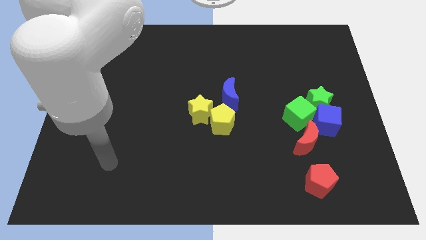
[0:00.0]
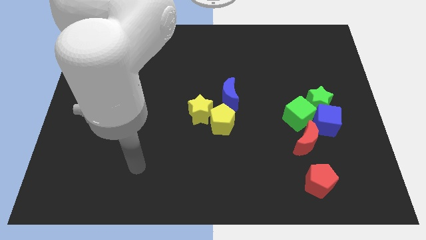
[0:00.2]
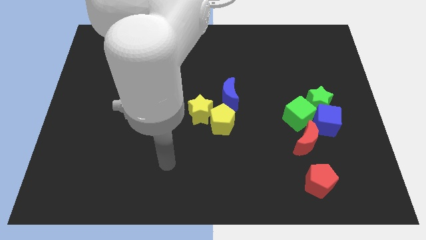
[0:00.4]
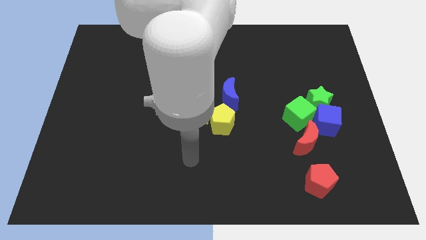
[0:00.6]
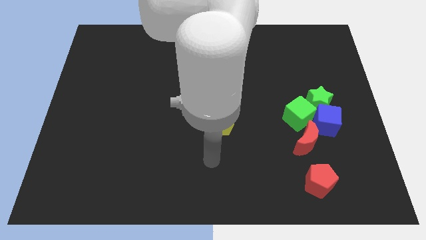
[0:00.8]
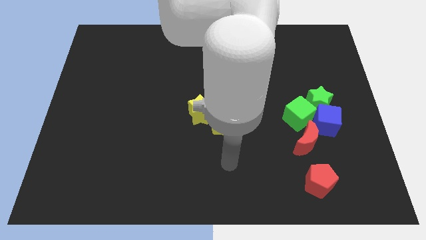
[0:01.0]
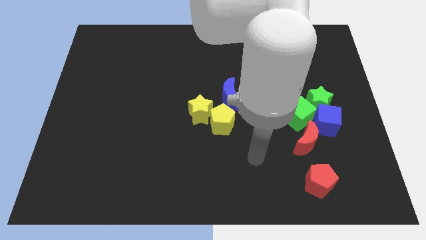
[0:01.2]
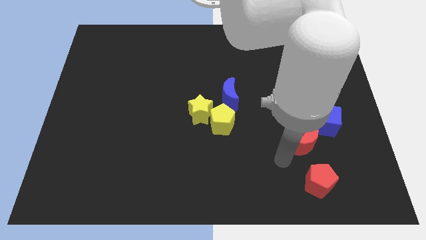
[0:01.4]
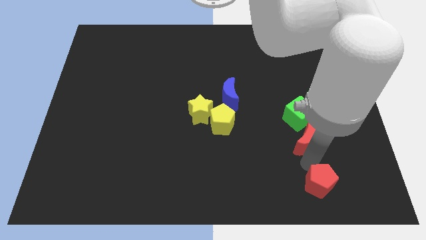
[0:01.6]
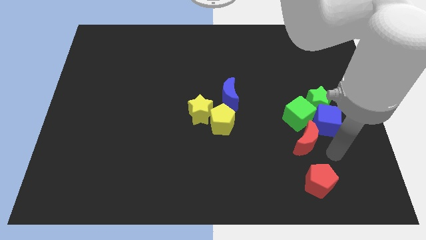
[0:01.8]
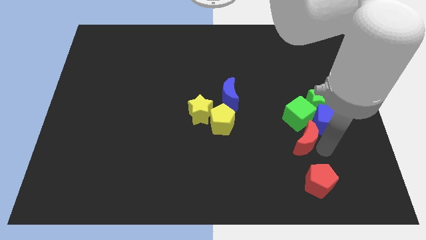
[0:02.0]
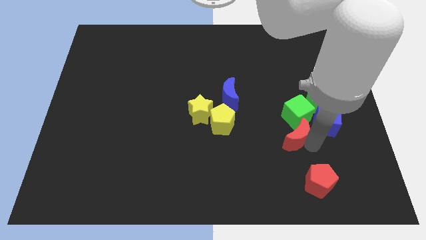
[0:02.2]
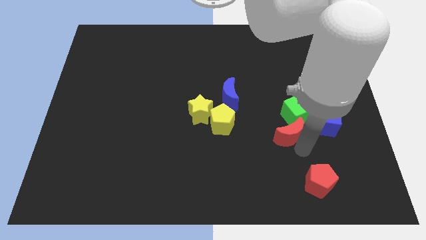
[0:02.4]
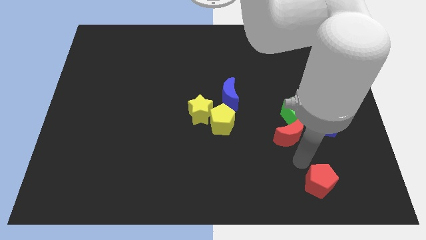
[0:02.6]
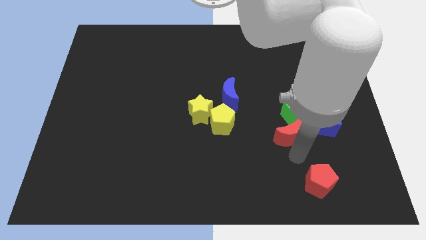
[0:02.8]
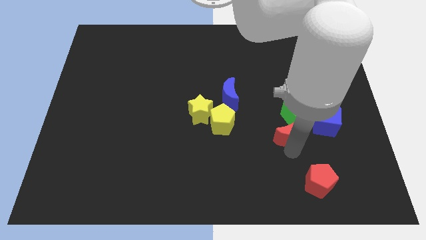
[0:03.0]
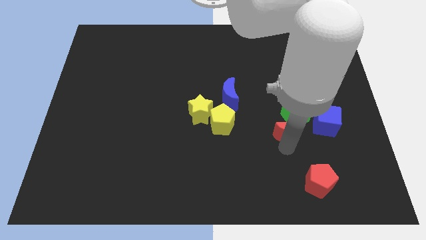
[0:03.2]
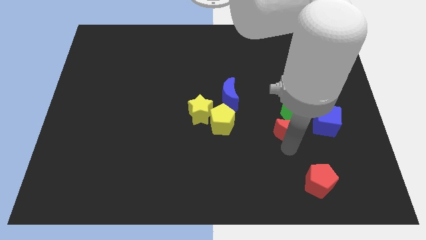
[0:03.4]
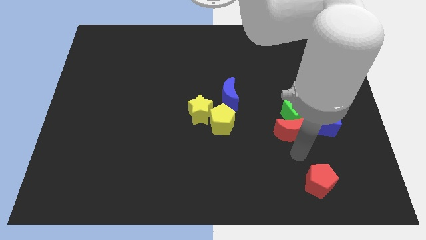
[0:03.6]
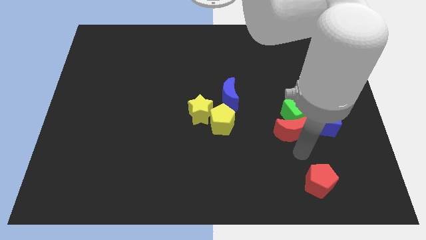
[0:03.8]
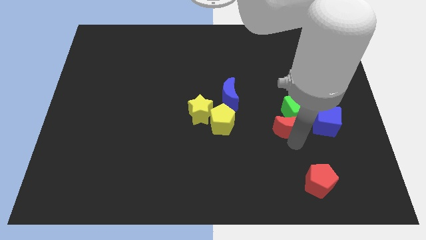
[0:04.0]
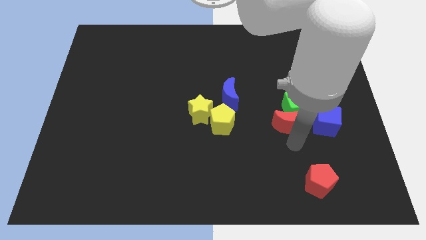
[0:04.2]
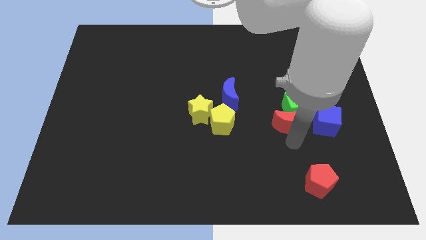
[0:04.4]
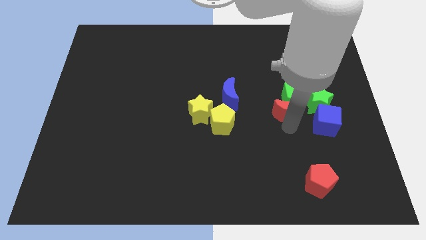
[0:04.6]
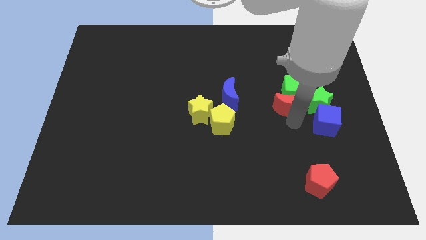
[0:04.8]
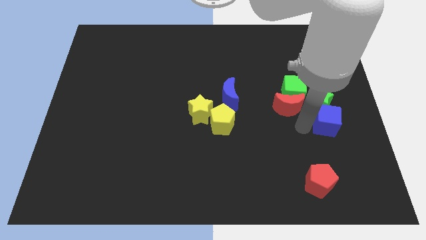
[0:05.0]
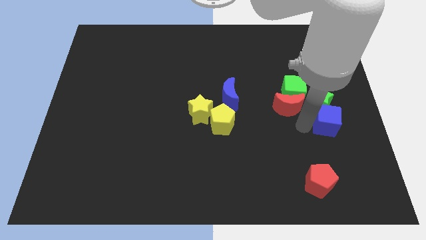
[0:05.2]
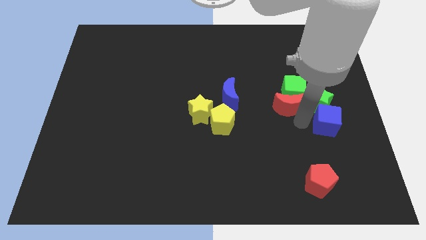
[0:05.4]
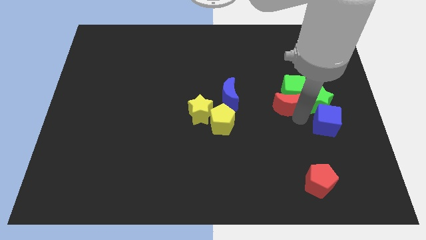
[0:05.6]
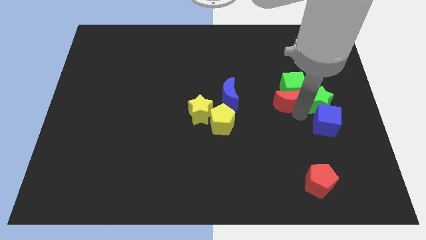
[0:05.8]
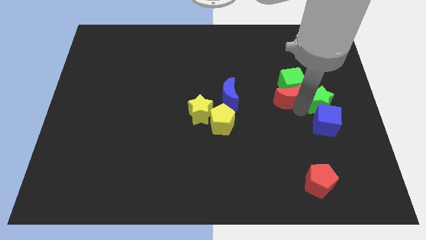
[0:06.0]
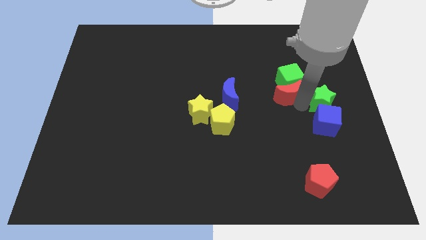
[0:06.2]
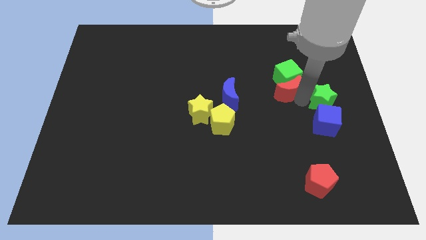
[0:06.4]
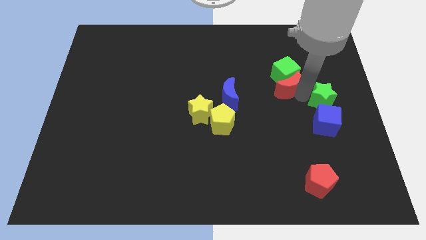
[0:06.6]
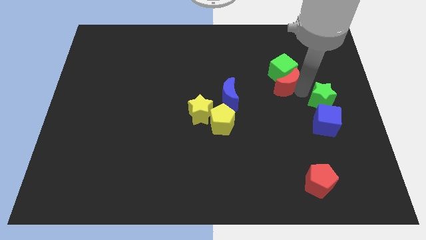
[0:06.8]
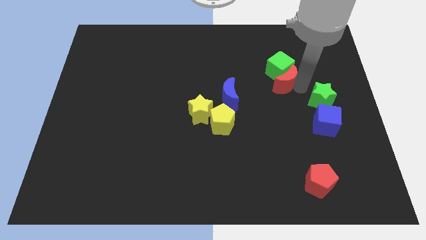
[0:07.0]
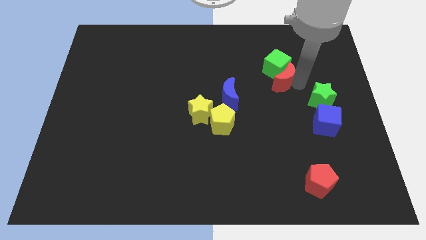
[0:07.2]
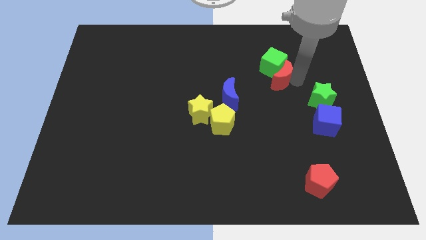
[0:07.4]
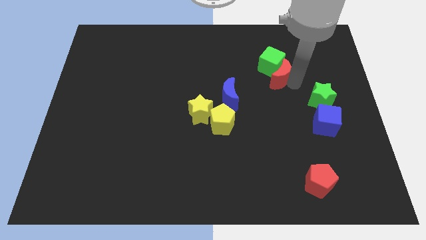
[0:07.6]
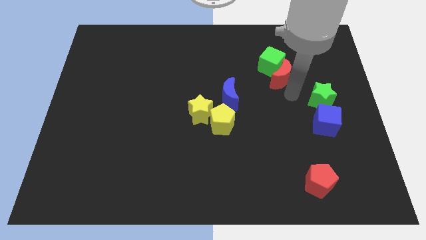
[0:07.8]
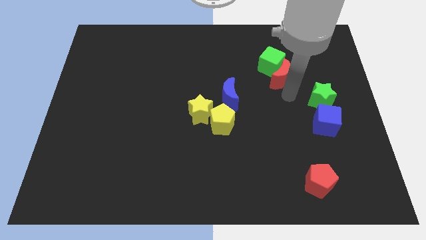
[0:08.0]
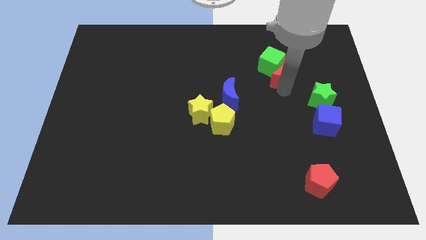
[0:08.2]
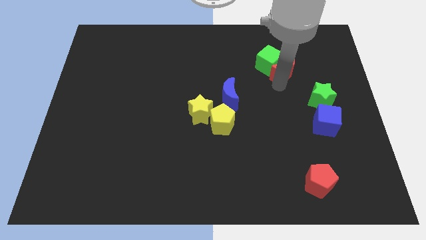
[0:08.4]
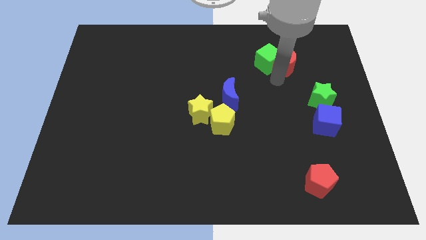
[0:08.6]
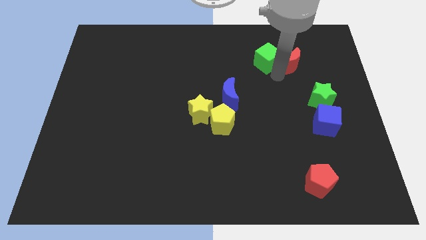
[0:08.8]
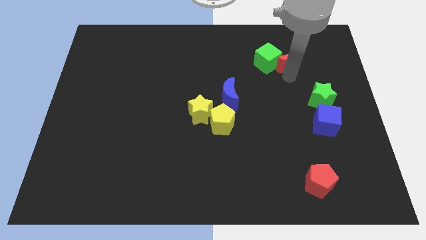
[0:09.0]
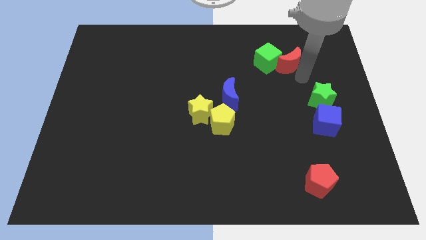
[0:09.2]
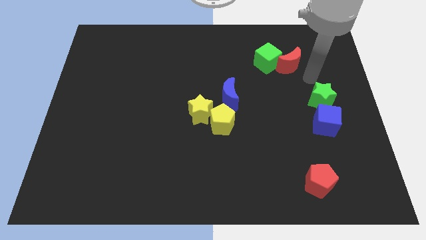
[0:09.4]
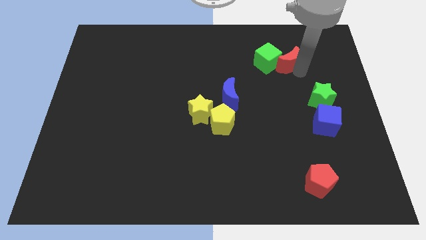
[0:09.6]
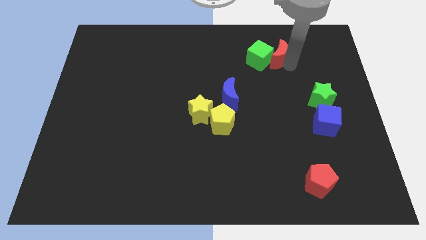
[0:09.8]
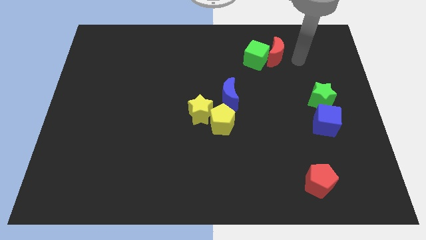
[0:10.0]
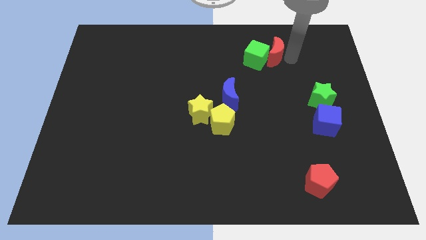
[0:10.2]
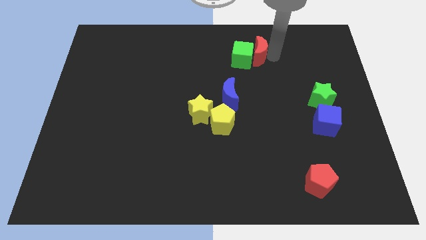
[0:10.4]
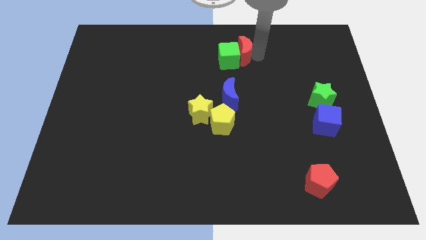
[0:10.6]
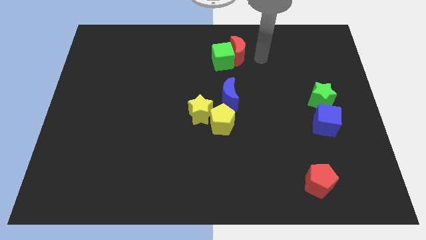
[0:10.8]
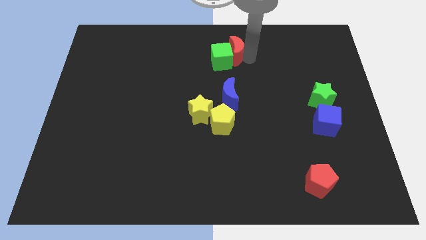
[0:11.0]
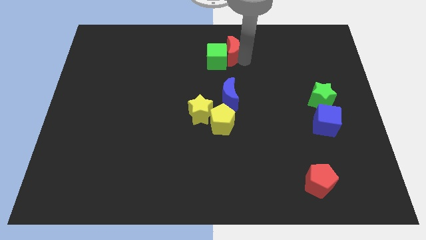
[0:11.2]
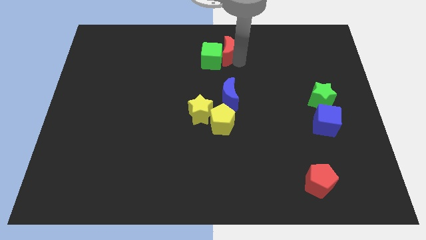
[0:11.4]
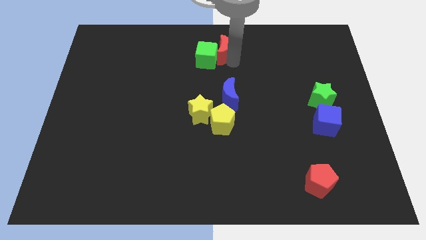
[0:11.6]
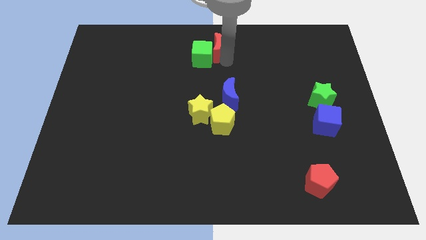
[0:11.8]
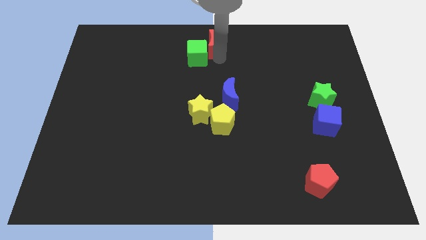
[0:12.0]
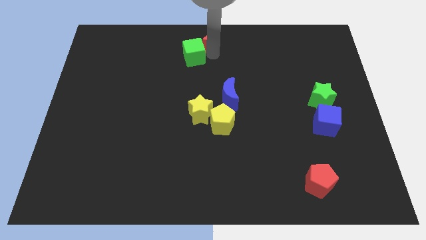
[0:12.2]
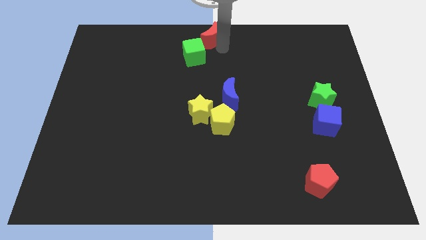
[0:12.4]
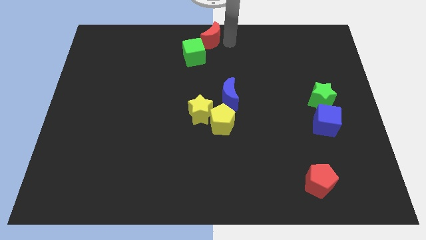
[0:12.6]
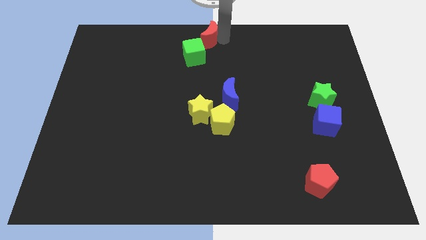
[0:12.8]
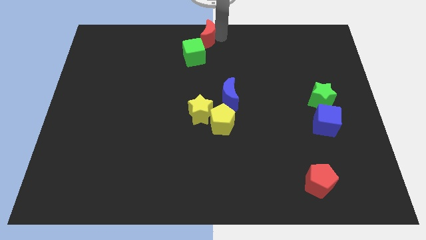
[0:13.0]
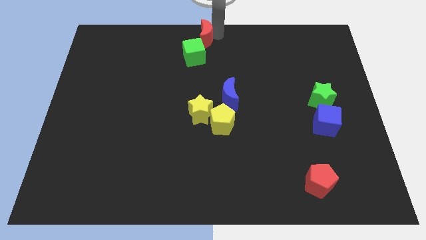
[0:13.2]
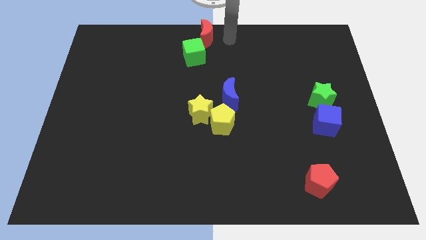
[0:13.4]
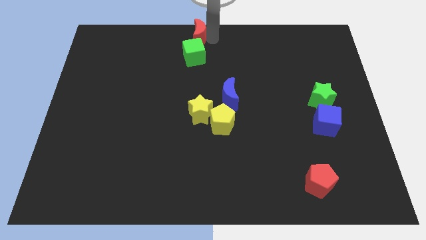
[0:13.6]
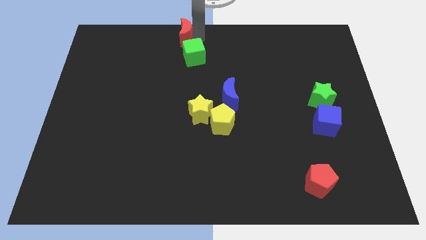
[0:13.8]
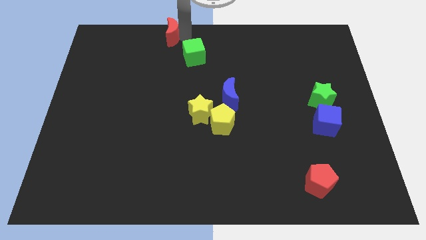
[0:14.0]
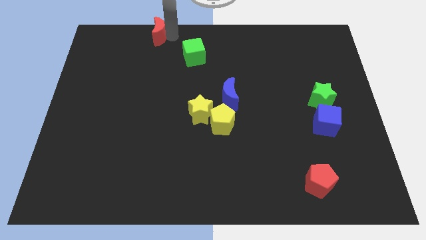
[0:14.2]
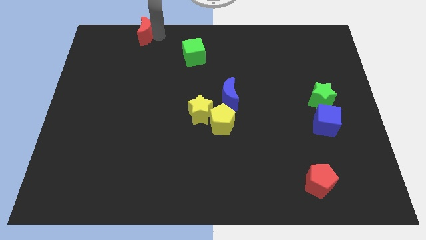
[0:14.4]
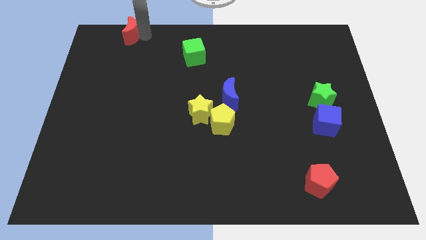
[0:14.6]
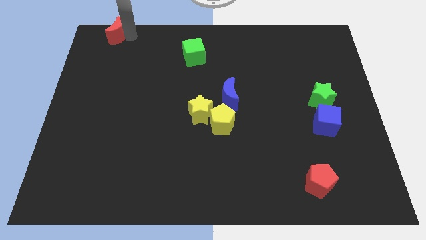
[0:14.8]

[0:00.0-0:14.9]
put the red moon to the top left of the board

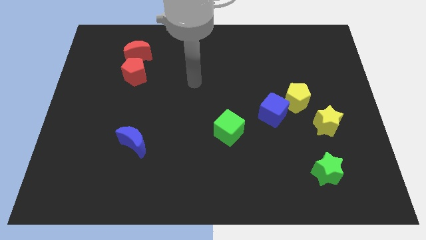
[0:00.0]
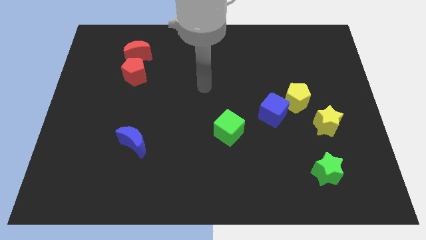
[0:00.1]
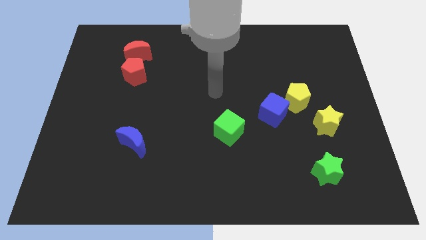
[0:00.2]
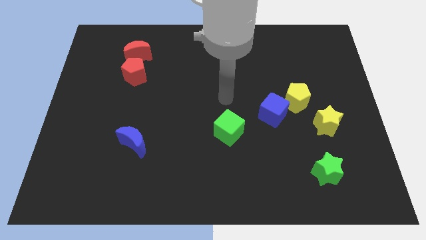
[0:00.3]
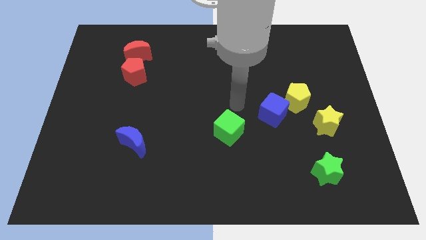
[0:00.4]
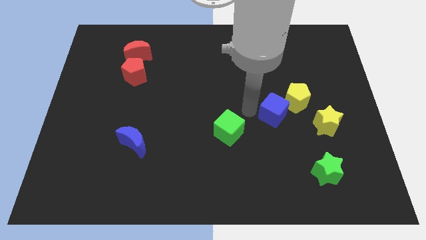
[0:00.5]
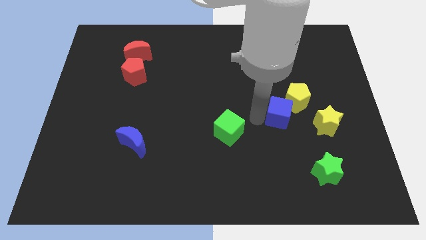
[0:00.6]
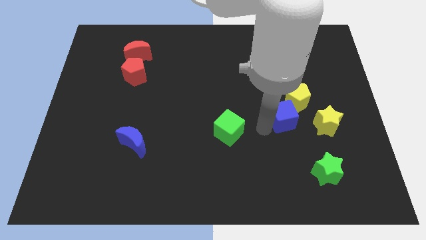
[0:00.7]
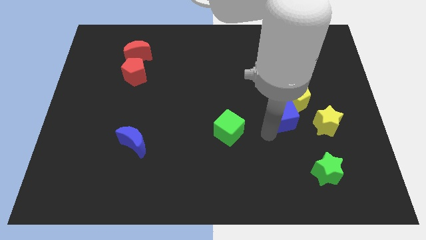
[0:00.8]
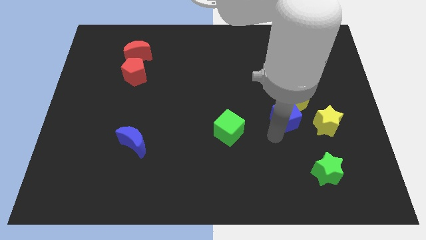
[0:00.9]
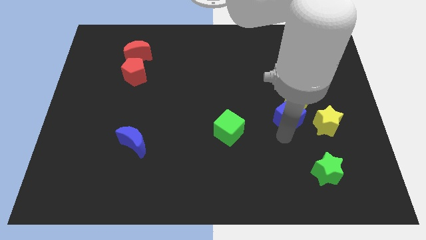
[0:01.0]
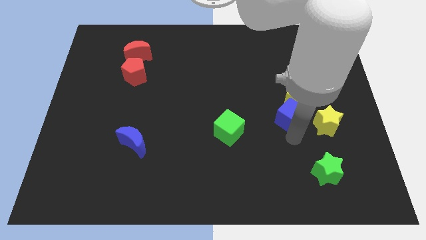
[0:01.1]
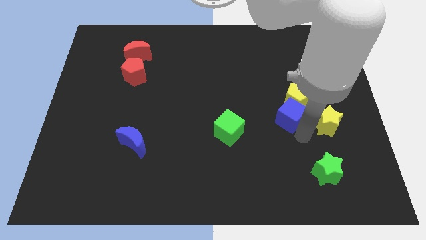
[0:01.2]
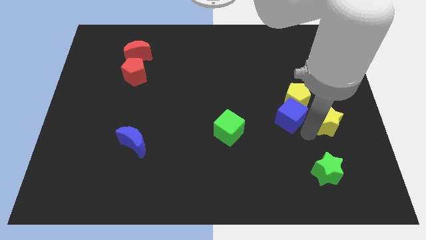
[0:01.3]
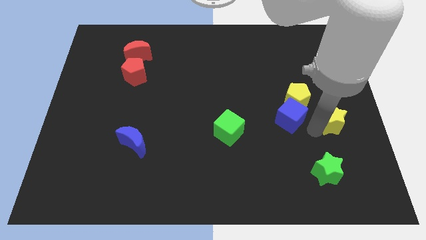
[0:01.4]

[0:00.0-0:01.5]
move the yellow star to the right side
